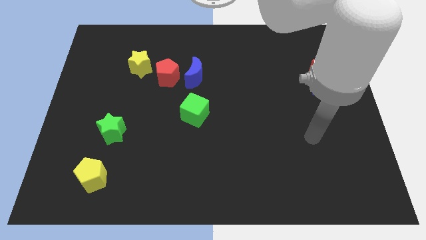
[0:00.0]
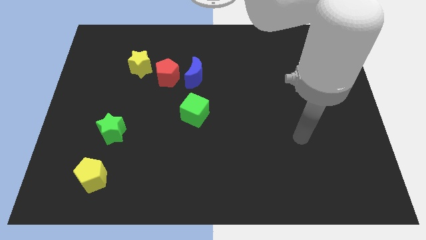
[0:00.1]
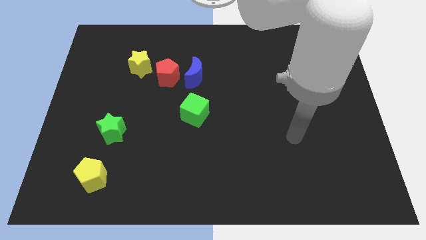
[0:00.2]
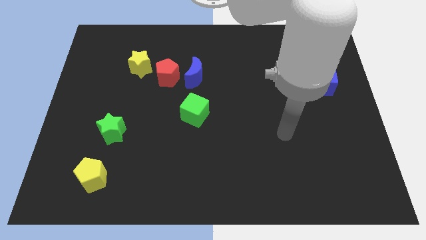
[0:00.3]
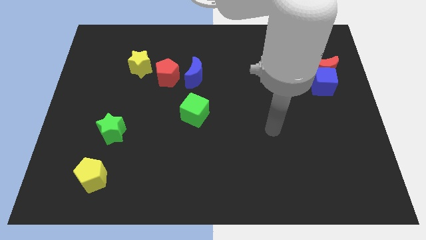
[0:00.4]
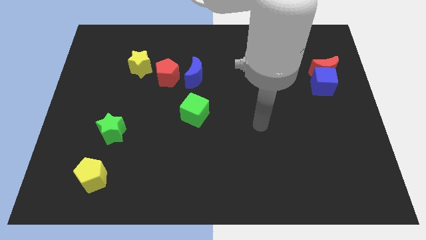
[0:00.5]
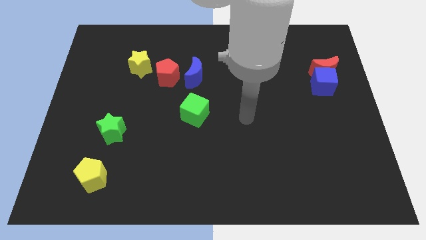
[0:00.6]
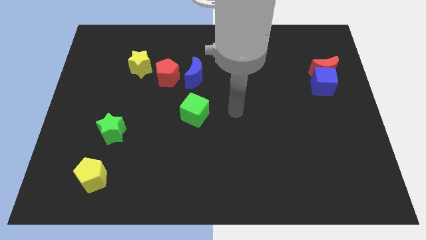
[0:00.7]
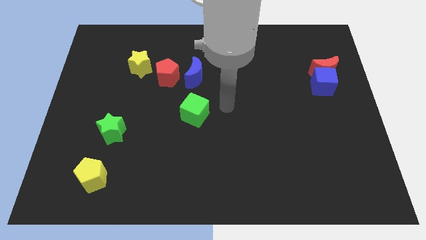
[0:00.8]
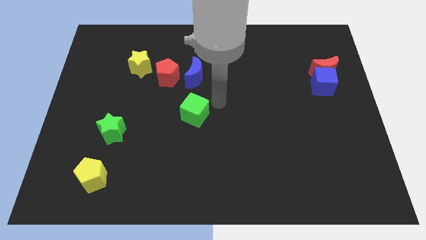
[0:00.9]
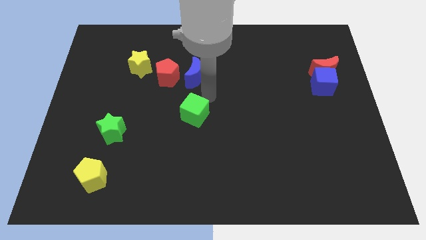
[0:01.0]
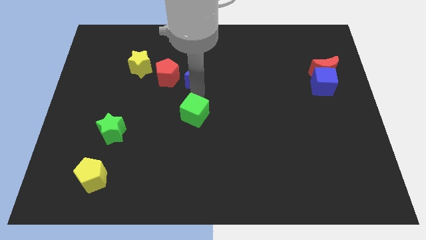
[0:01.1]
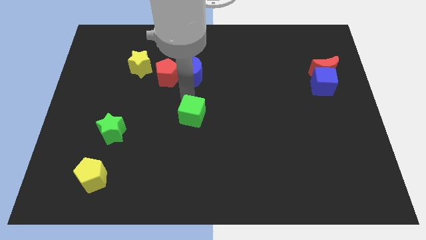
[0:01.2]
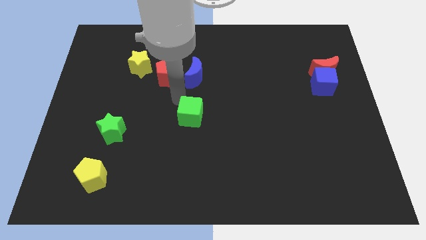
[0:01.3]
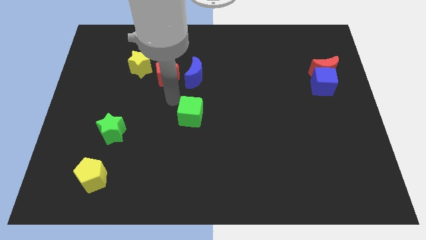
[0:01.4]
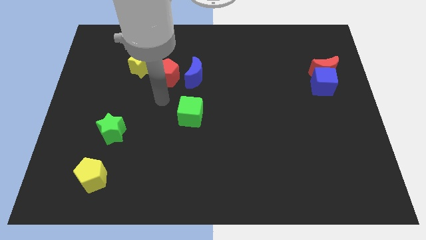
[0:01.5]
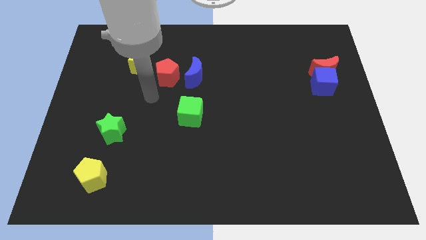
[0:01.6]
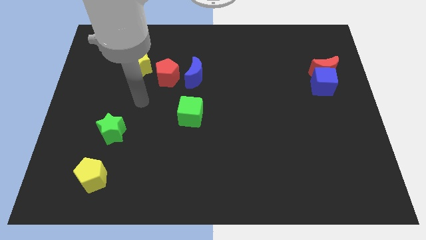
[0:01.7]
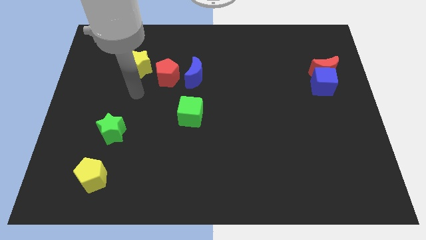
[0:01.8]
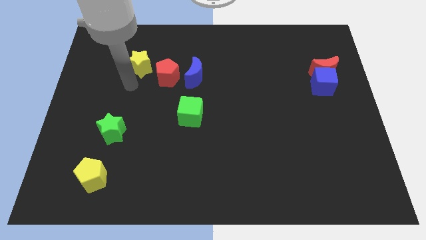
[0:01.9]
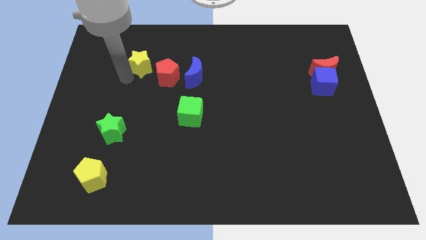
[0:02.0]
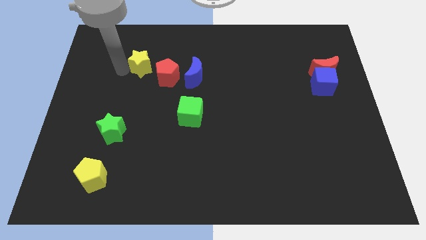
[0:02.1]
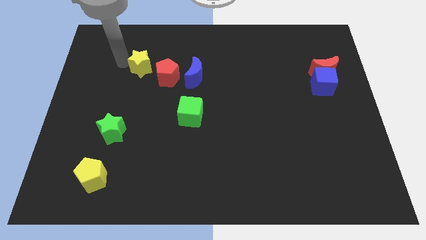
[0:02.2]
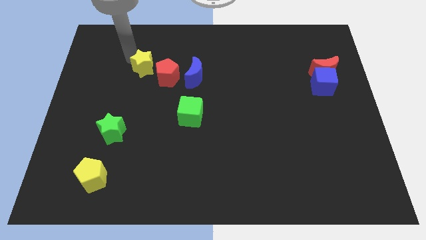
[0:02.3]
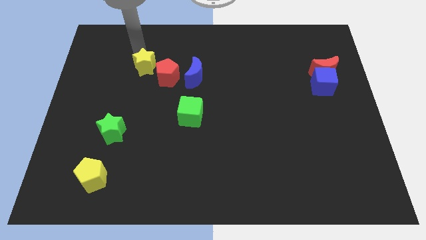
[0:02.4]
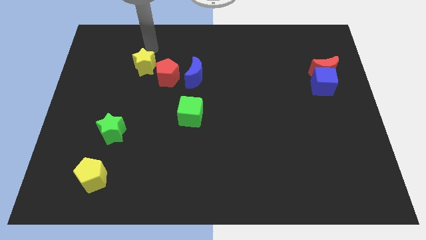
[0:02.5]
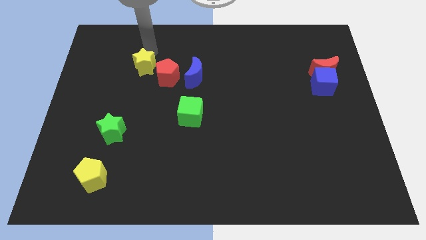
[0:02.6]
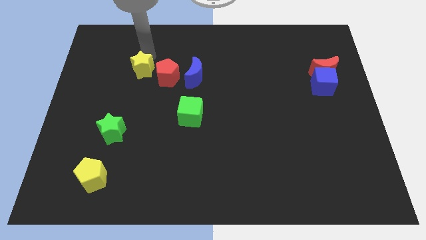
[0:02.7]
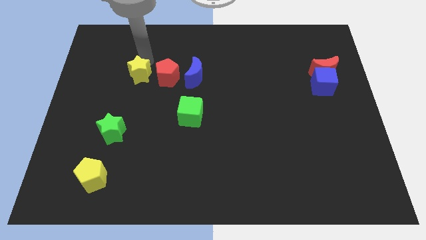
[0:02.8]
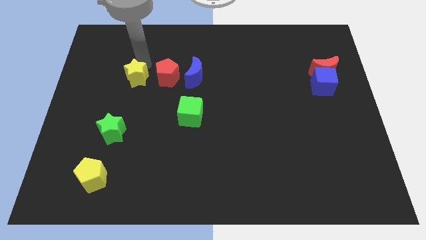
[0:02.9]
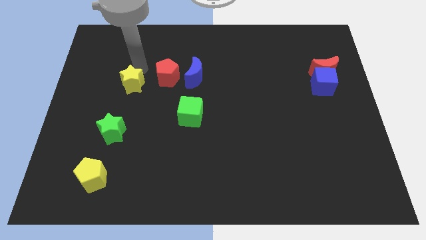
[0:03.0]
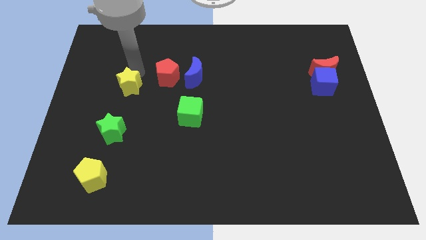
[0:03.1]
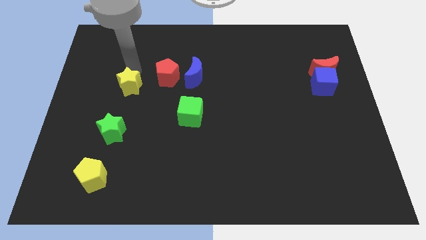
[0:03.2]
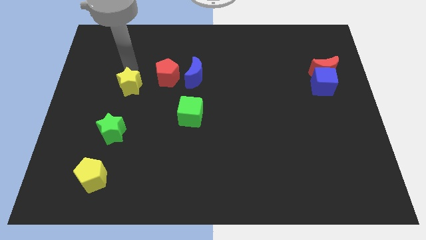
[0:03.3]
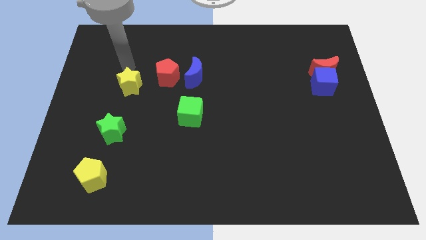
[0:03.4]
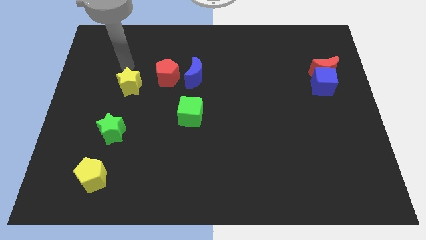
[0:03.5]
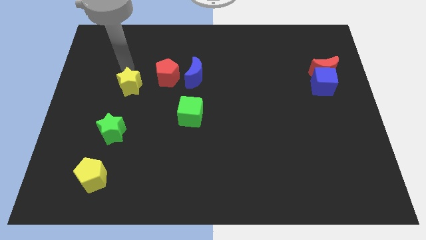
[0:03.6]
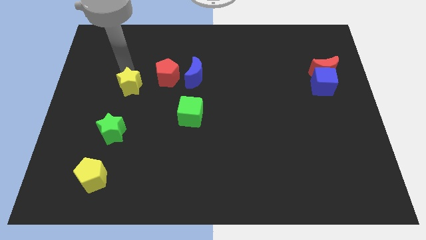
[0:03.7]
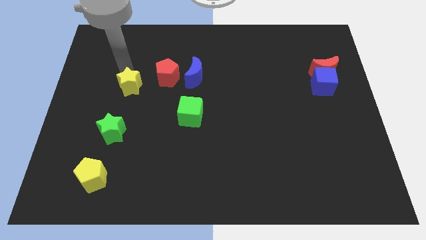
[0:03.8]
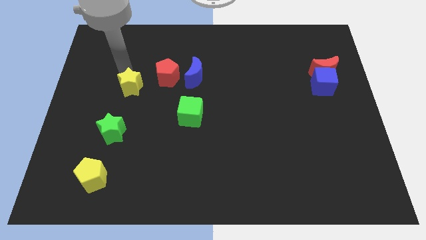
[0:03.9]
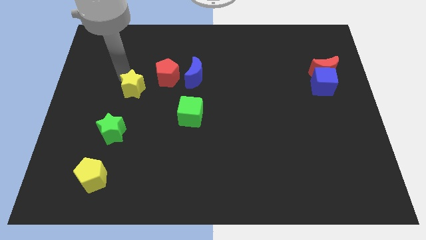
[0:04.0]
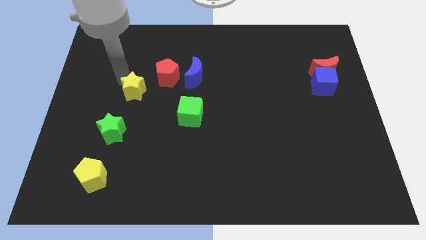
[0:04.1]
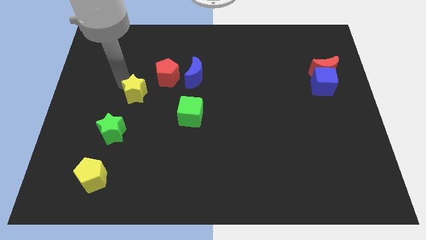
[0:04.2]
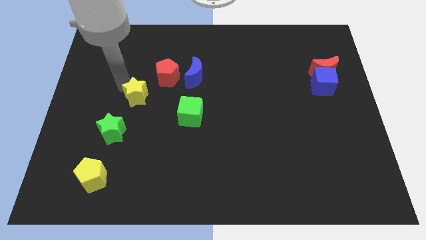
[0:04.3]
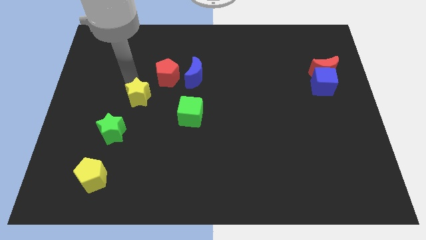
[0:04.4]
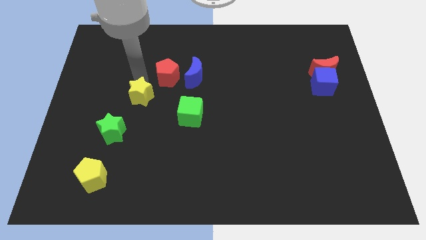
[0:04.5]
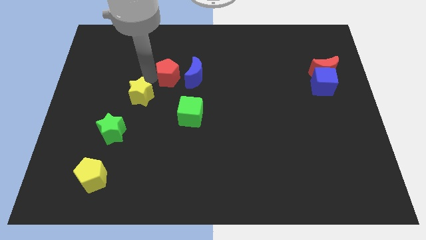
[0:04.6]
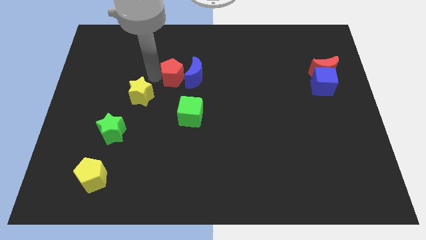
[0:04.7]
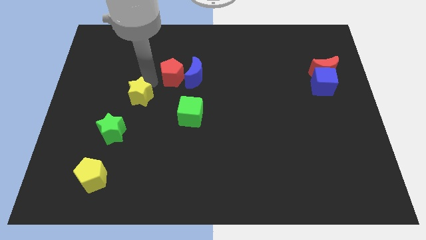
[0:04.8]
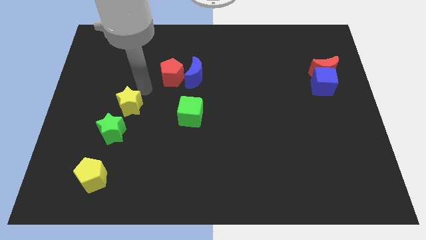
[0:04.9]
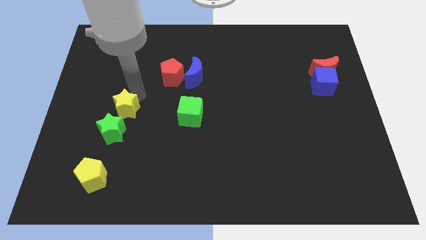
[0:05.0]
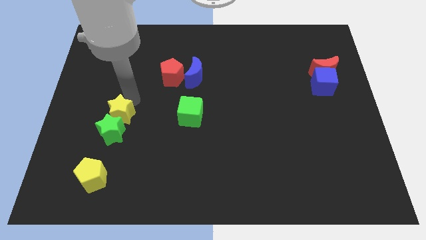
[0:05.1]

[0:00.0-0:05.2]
move the yellow star next to the green star
